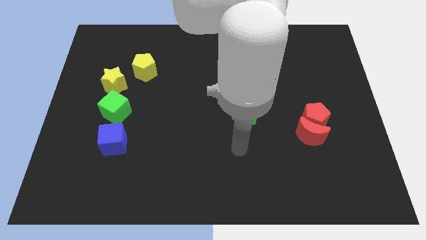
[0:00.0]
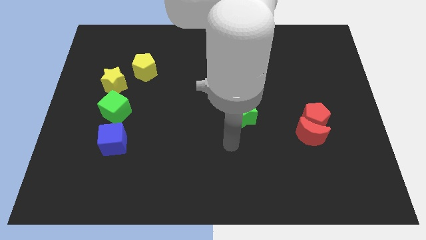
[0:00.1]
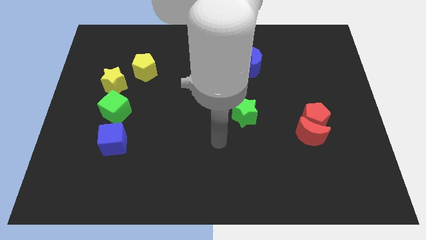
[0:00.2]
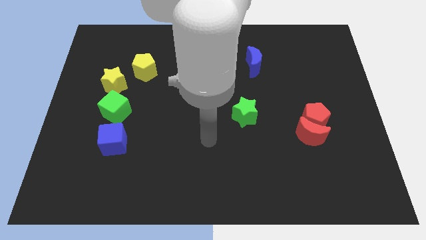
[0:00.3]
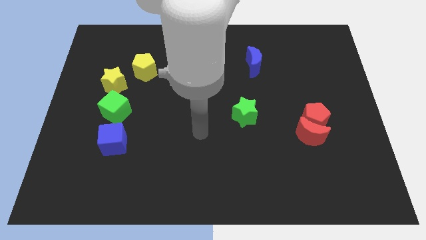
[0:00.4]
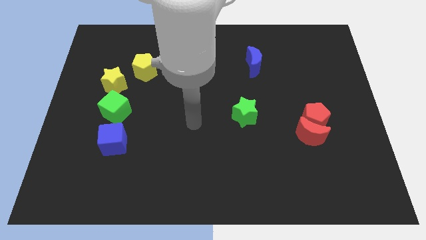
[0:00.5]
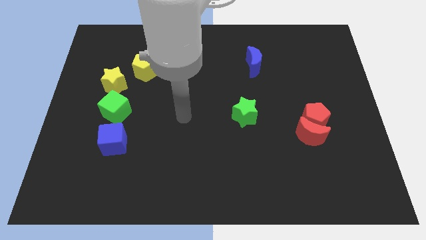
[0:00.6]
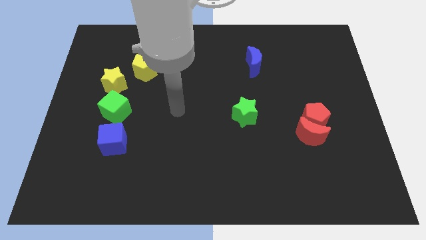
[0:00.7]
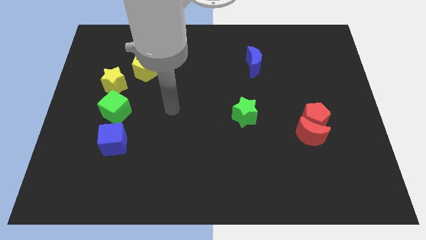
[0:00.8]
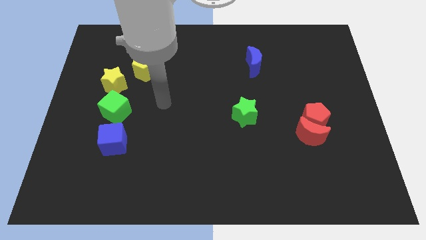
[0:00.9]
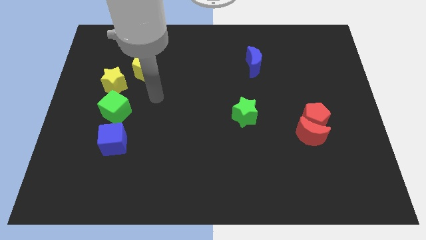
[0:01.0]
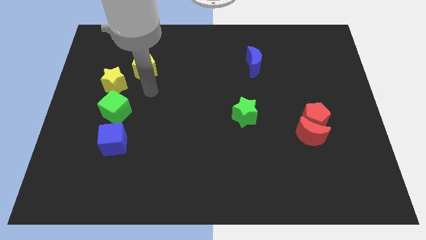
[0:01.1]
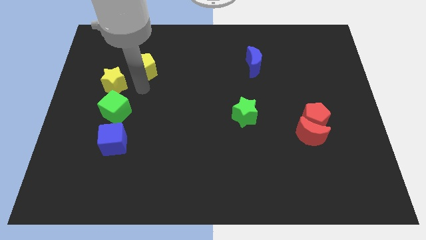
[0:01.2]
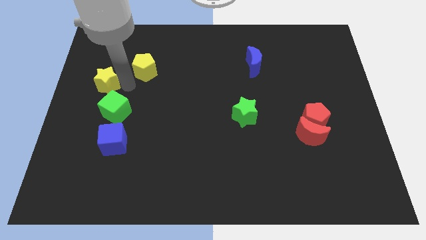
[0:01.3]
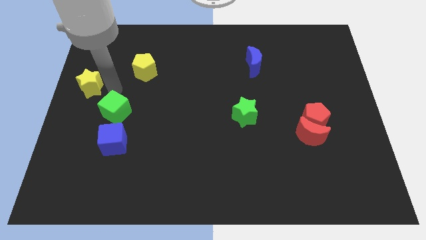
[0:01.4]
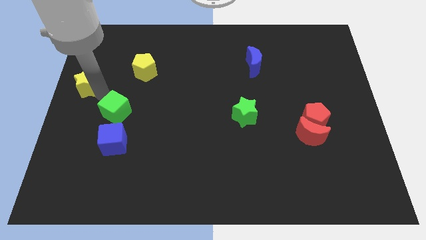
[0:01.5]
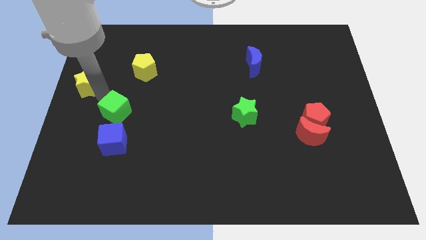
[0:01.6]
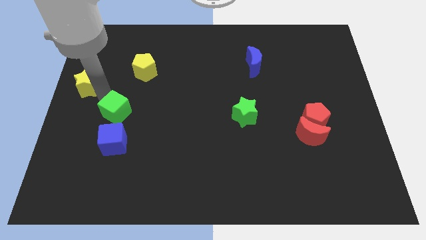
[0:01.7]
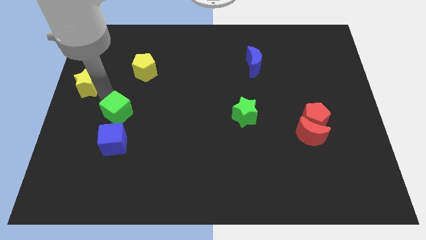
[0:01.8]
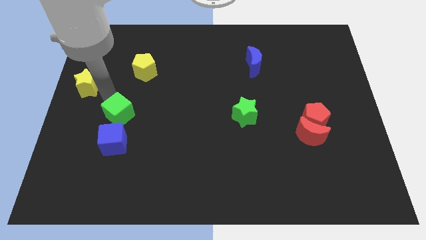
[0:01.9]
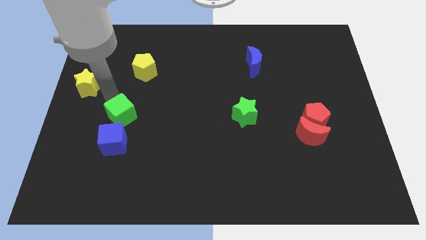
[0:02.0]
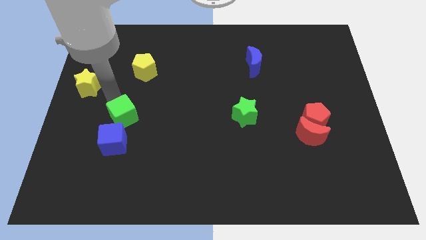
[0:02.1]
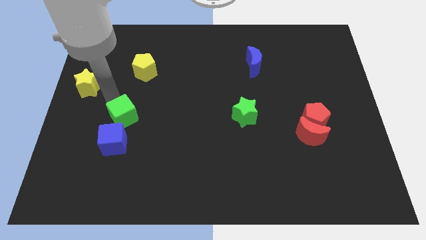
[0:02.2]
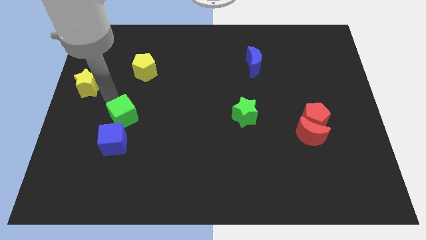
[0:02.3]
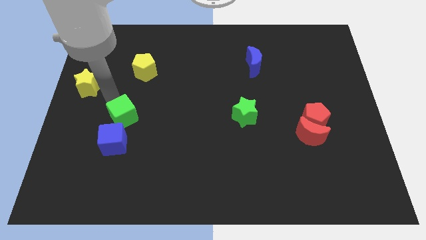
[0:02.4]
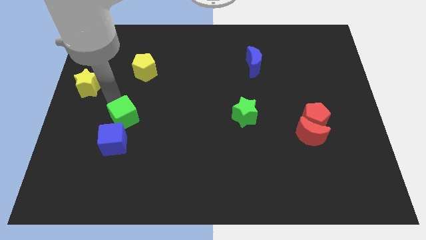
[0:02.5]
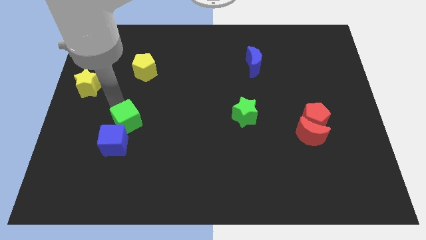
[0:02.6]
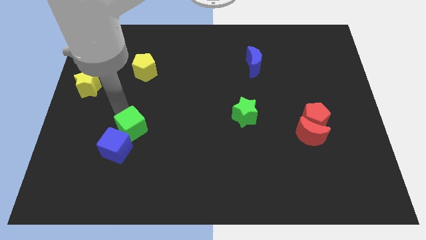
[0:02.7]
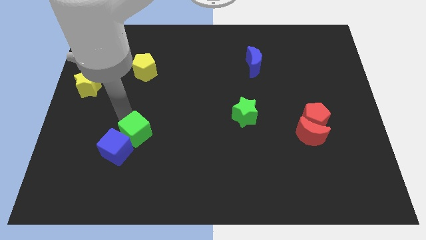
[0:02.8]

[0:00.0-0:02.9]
move the green cube downwards and right diagonally a little

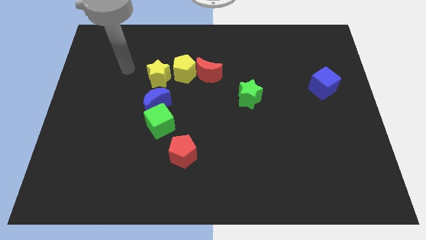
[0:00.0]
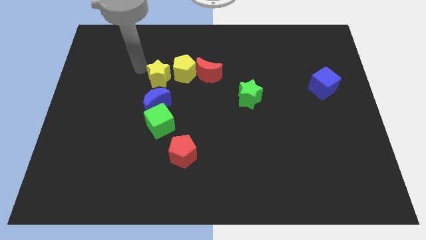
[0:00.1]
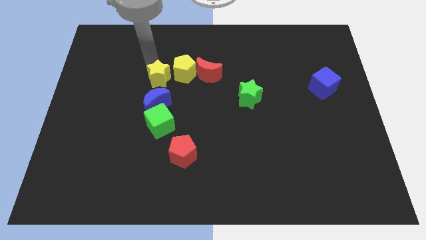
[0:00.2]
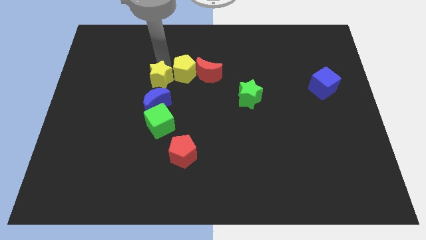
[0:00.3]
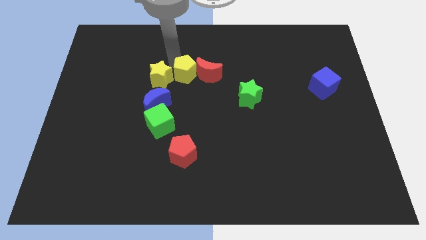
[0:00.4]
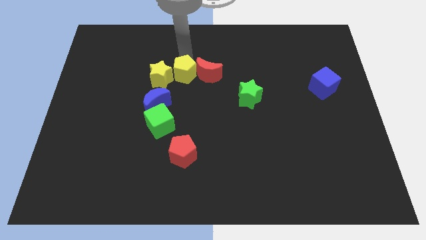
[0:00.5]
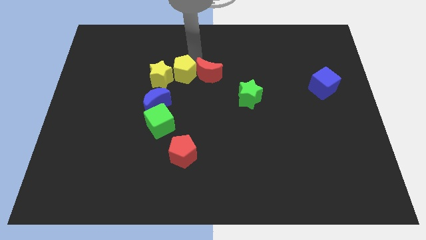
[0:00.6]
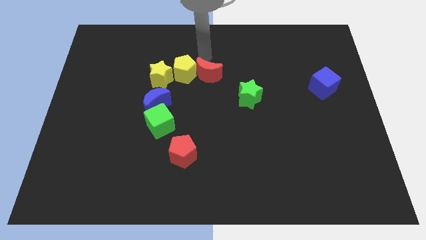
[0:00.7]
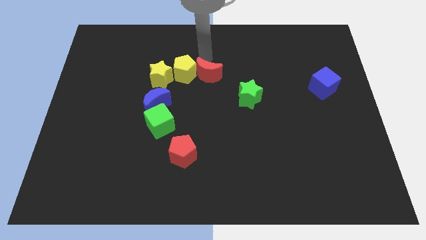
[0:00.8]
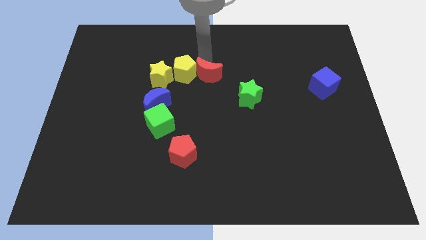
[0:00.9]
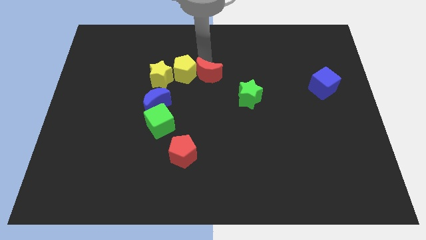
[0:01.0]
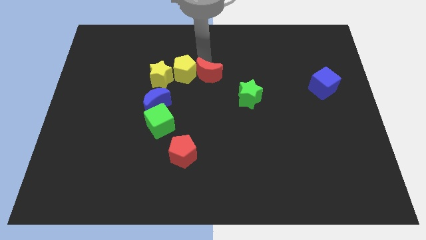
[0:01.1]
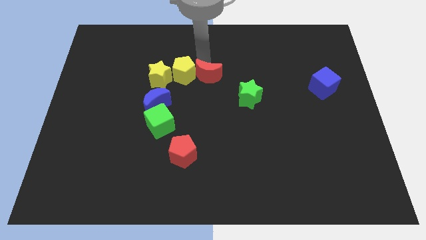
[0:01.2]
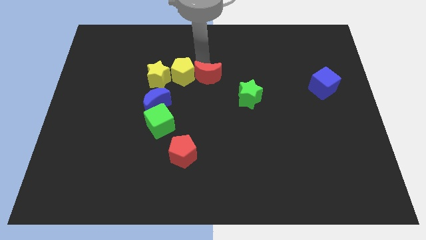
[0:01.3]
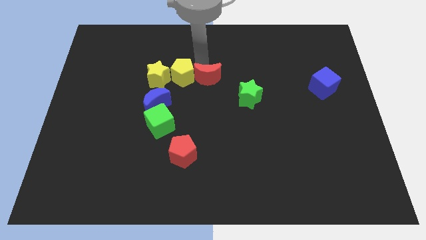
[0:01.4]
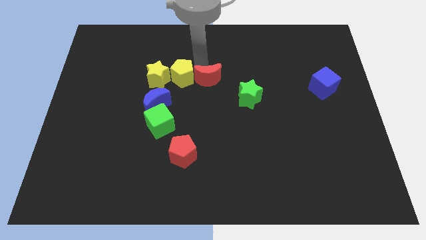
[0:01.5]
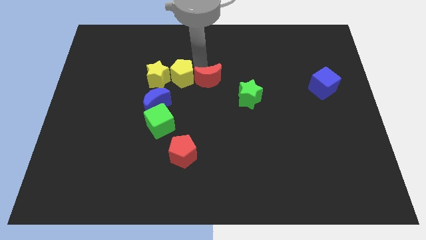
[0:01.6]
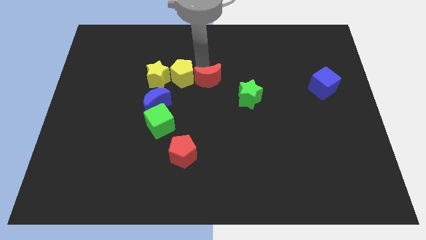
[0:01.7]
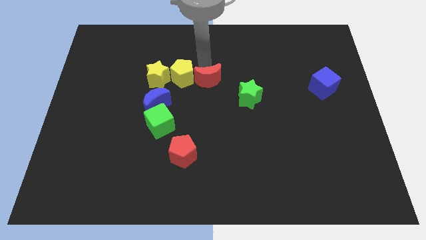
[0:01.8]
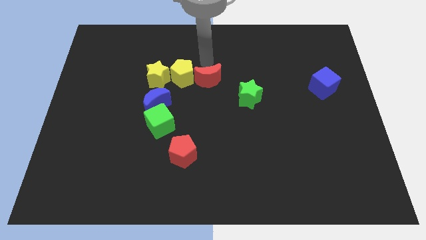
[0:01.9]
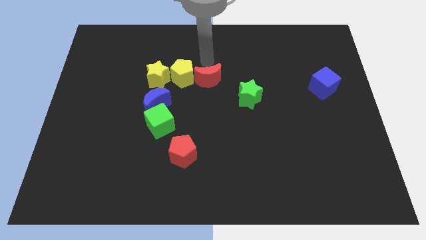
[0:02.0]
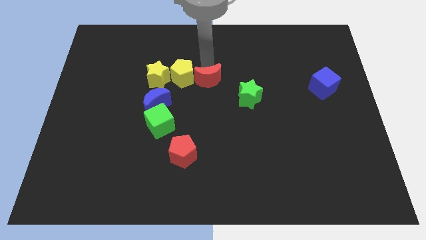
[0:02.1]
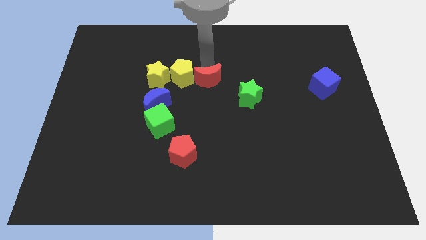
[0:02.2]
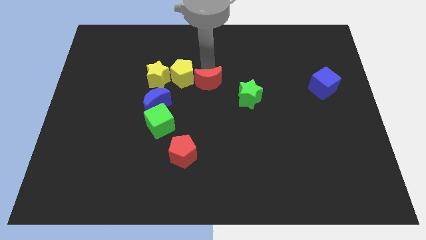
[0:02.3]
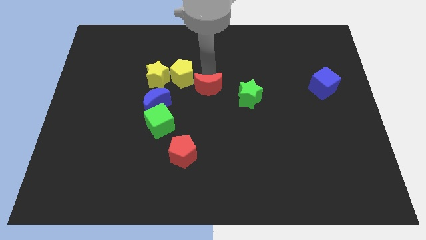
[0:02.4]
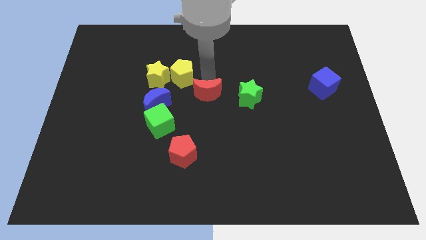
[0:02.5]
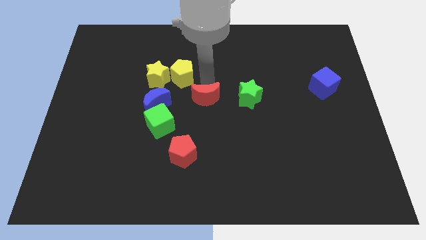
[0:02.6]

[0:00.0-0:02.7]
slide the red moon somewhat down

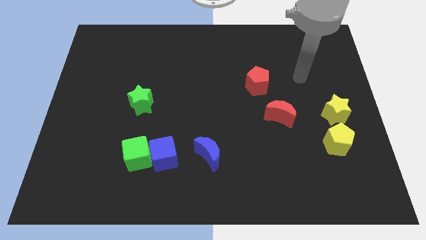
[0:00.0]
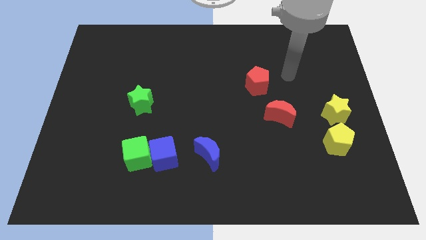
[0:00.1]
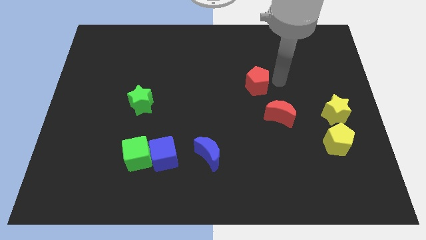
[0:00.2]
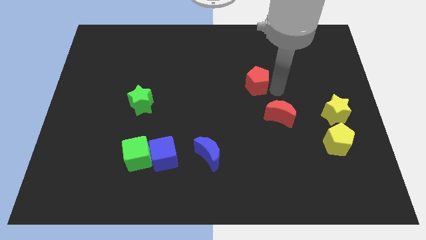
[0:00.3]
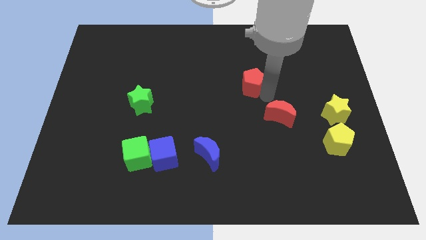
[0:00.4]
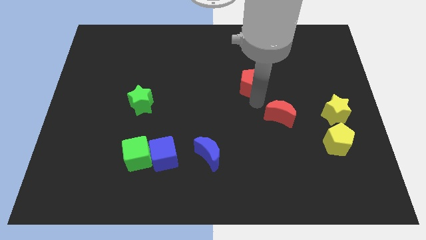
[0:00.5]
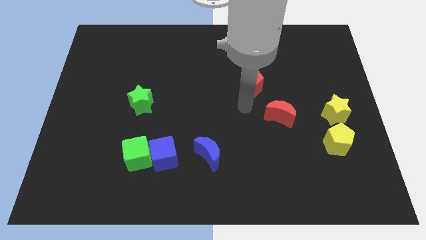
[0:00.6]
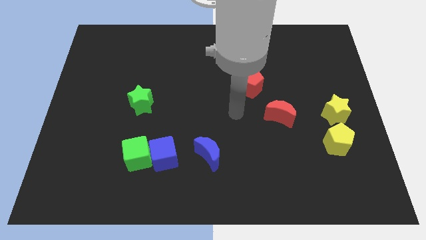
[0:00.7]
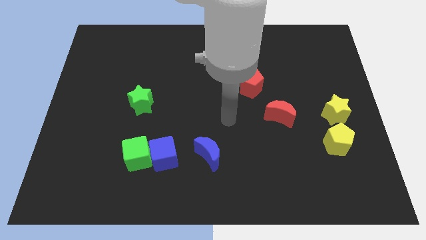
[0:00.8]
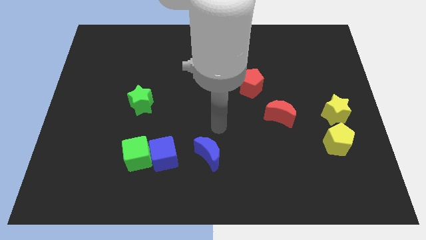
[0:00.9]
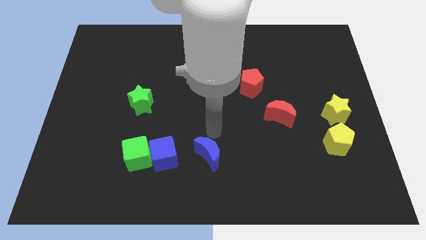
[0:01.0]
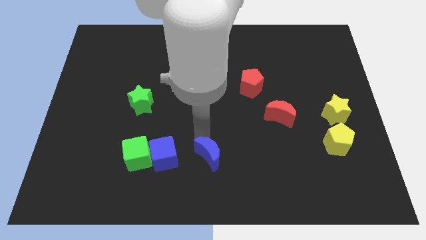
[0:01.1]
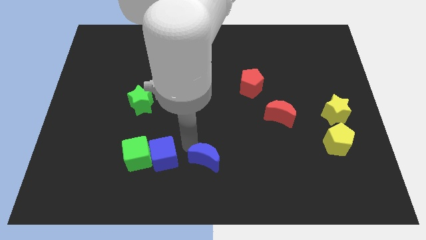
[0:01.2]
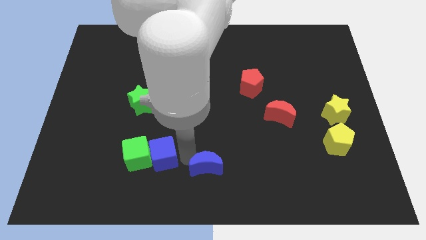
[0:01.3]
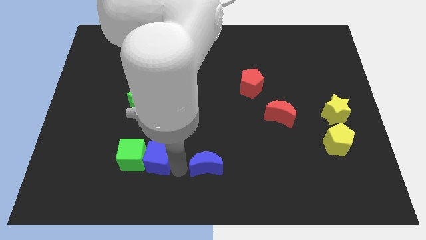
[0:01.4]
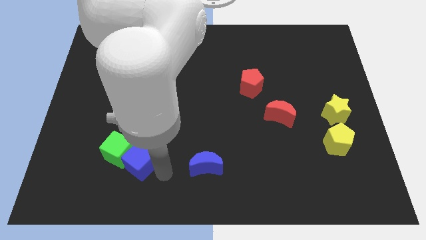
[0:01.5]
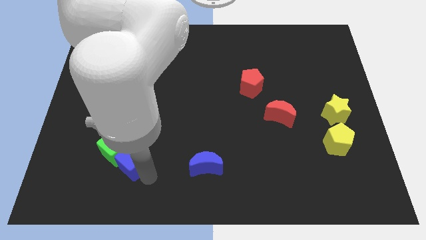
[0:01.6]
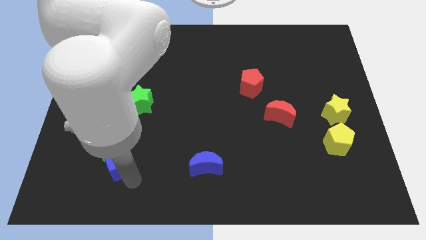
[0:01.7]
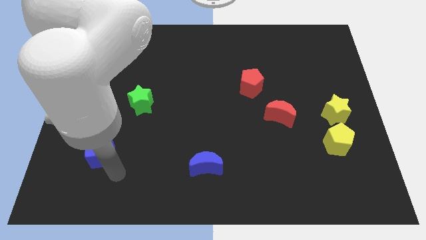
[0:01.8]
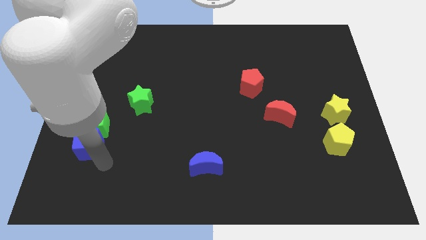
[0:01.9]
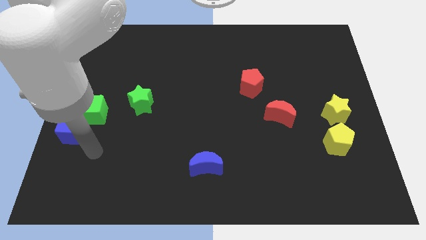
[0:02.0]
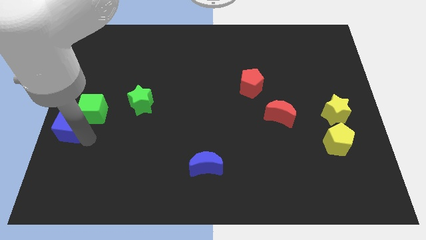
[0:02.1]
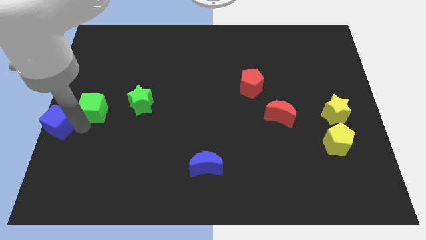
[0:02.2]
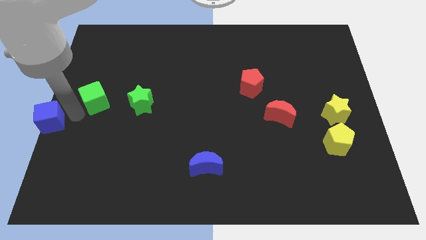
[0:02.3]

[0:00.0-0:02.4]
push the green cube a bit up

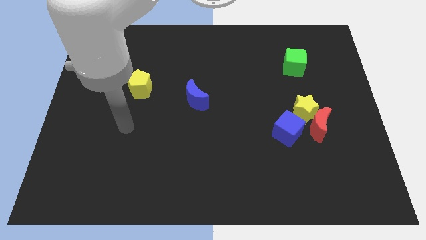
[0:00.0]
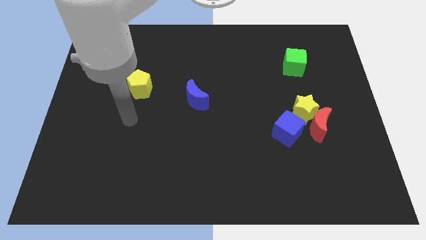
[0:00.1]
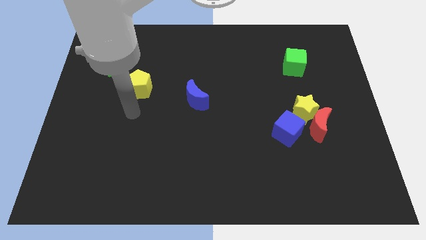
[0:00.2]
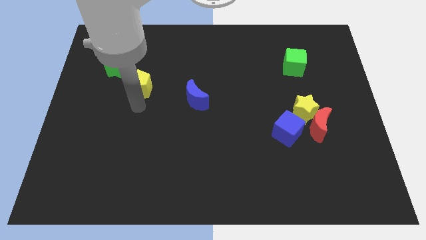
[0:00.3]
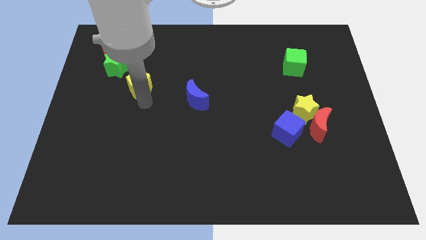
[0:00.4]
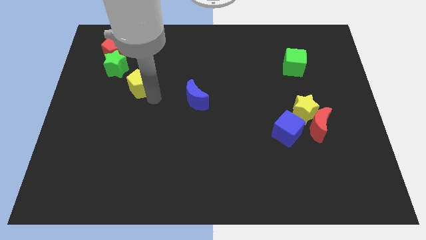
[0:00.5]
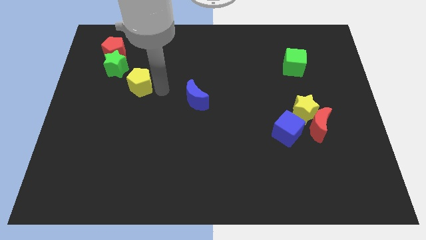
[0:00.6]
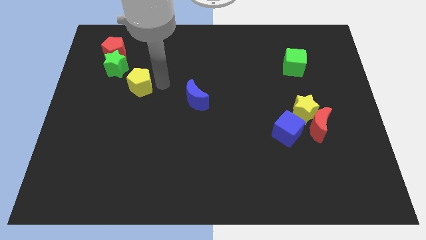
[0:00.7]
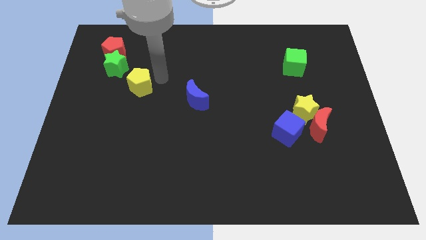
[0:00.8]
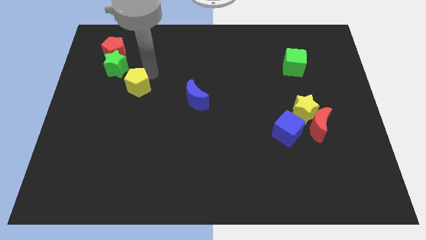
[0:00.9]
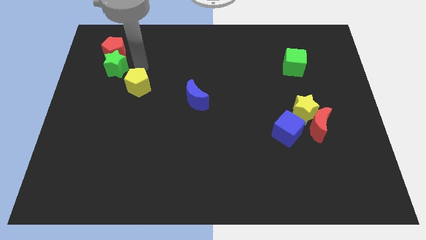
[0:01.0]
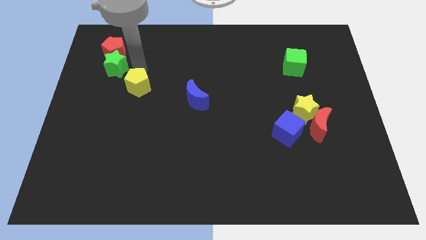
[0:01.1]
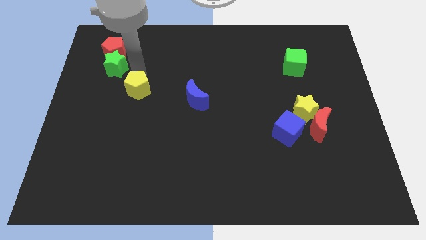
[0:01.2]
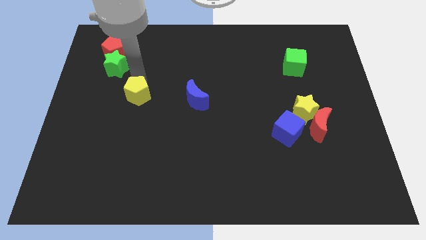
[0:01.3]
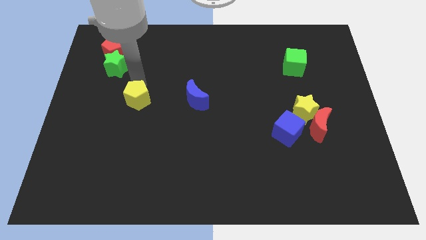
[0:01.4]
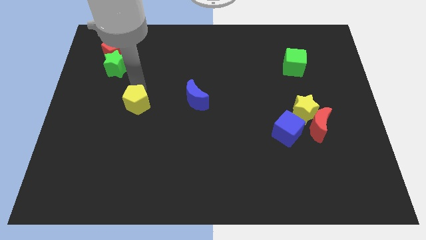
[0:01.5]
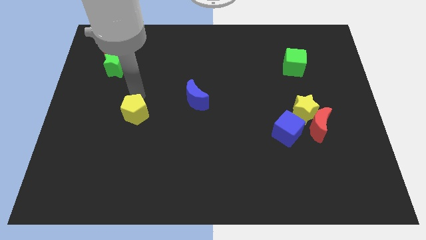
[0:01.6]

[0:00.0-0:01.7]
slide the yellow pentagon somewhat down
